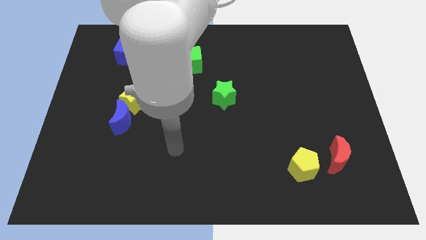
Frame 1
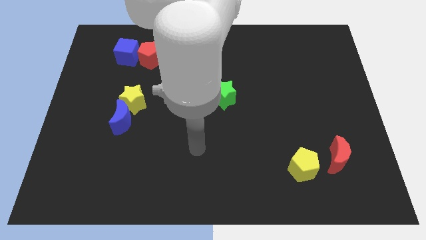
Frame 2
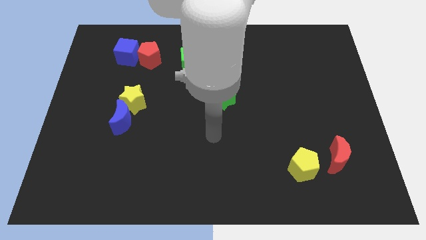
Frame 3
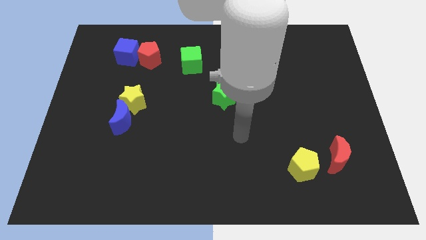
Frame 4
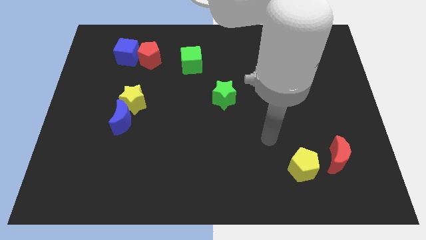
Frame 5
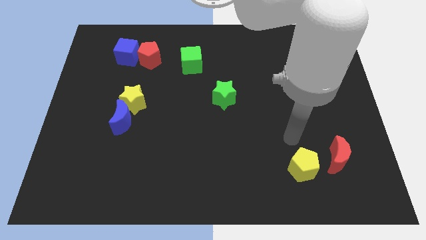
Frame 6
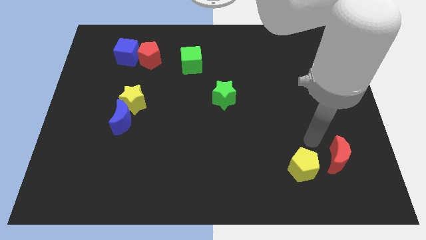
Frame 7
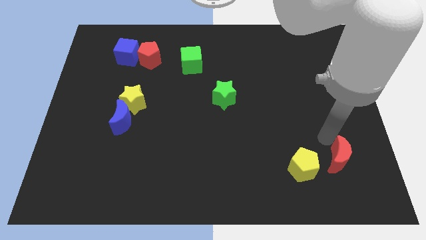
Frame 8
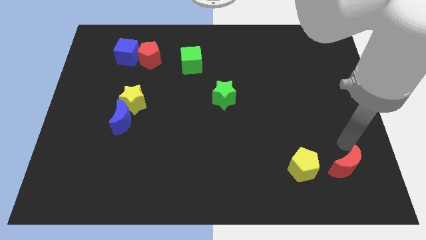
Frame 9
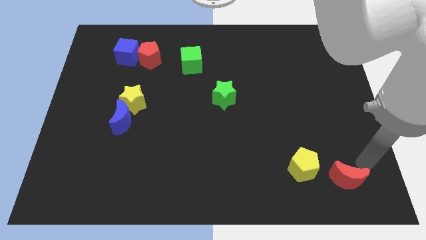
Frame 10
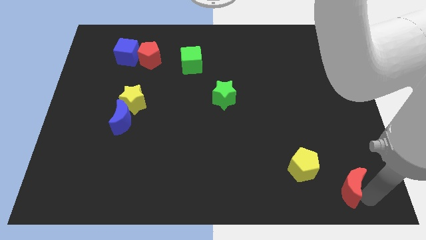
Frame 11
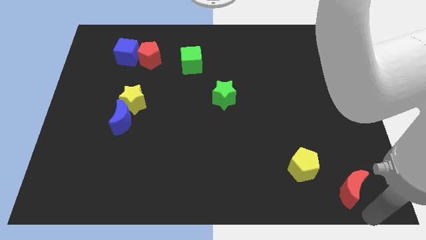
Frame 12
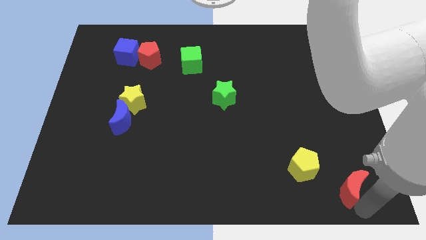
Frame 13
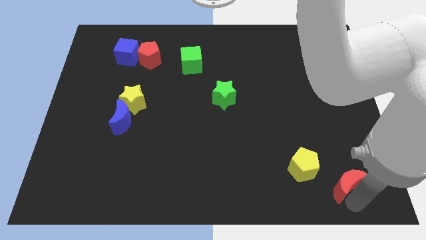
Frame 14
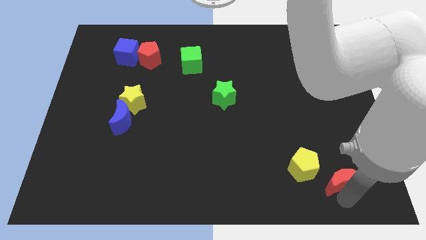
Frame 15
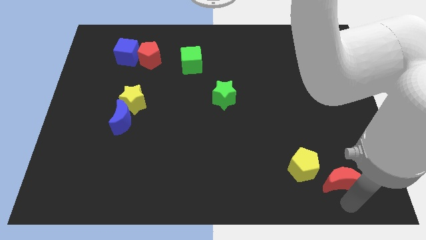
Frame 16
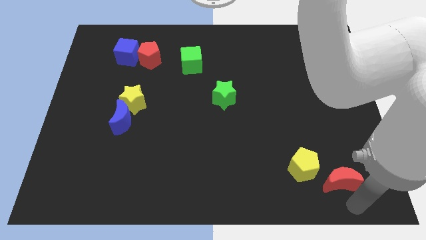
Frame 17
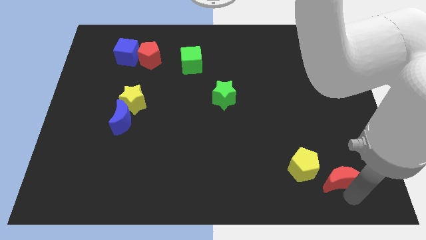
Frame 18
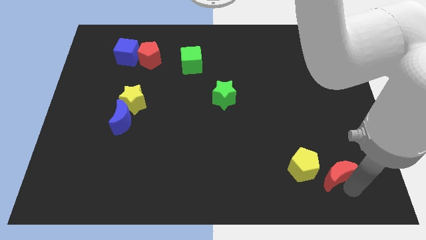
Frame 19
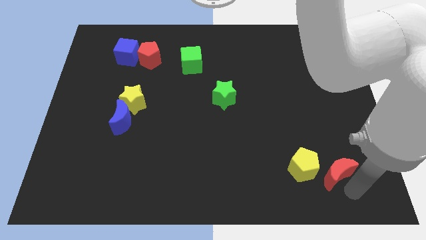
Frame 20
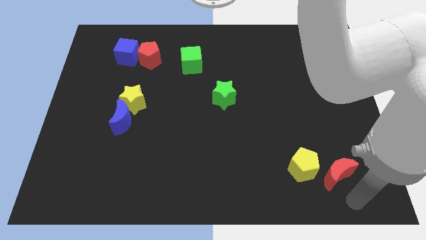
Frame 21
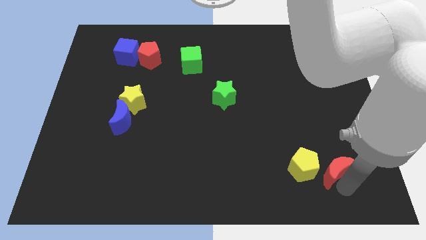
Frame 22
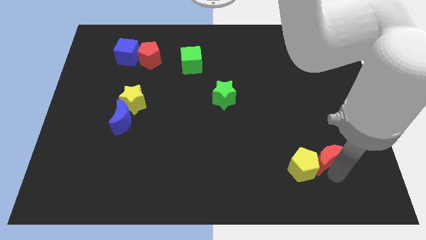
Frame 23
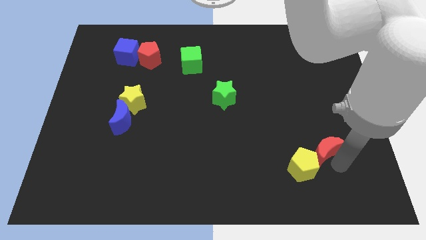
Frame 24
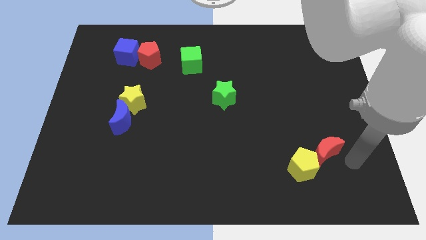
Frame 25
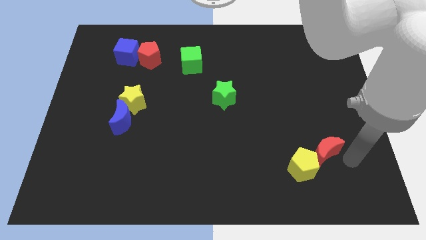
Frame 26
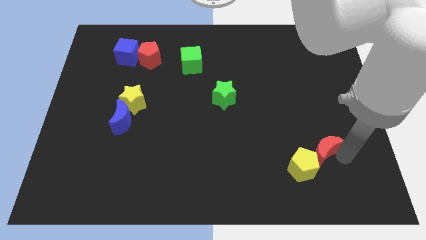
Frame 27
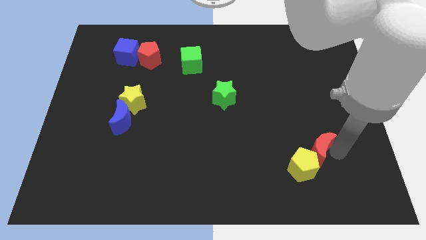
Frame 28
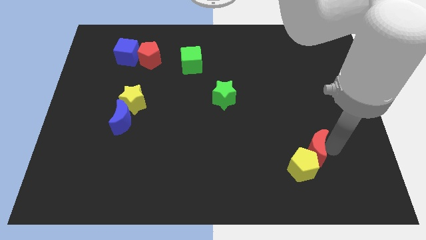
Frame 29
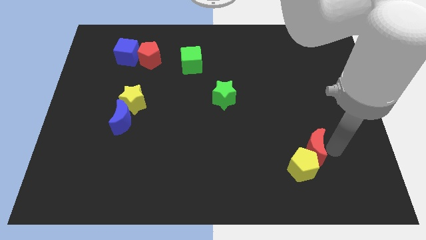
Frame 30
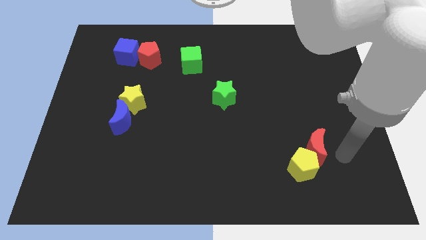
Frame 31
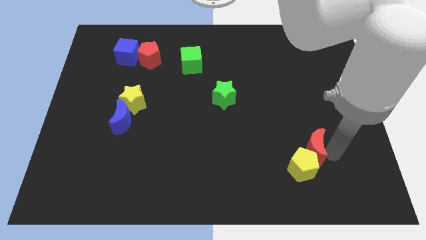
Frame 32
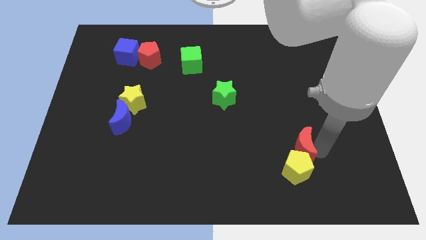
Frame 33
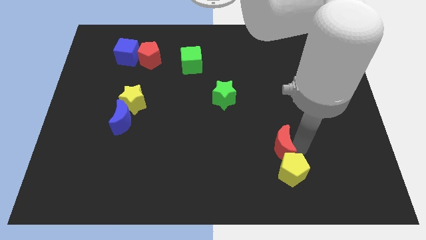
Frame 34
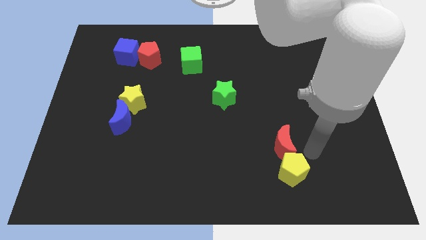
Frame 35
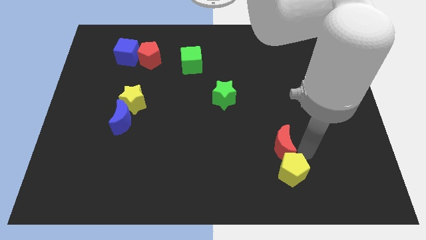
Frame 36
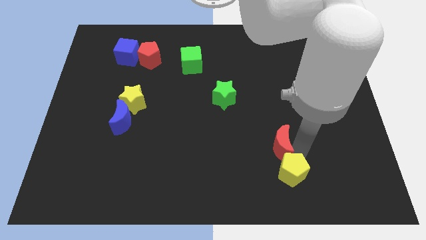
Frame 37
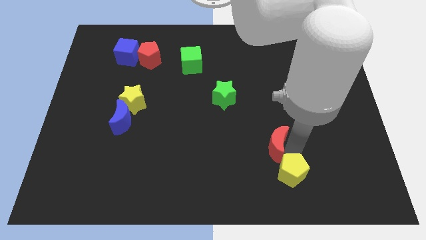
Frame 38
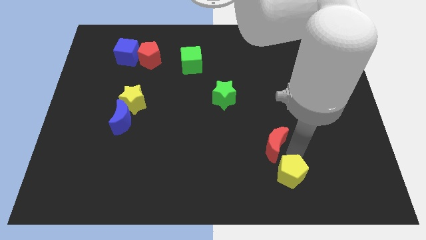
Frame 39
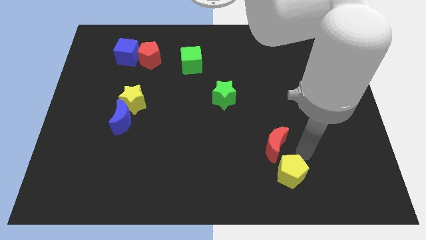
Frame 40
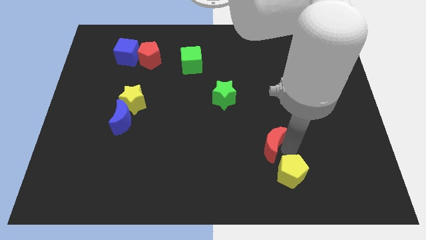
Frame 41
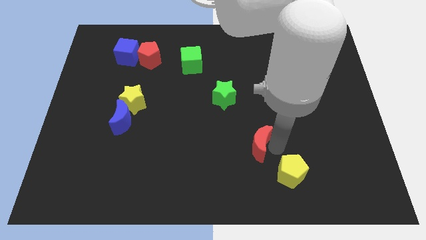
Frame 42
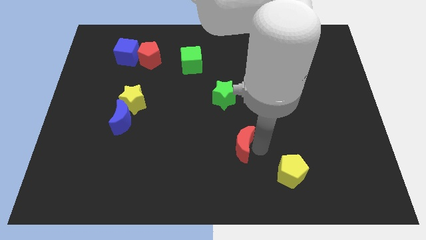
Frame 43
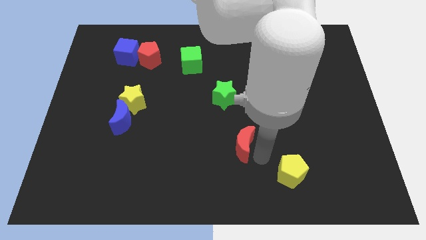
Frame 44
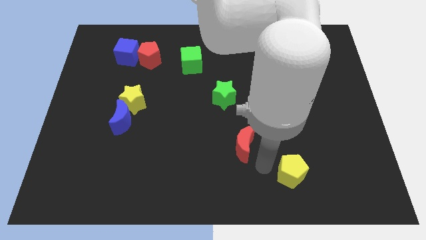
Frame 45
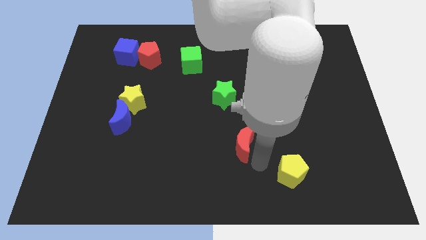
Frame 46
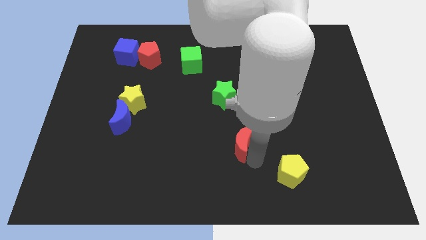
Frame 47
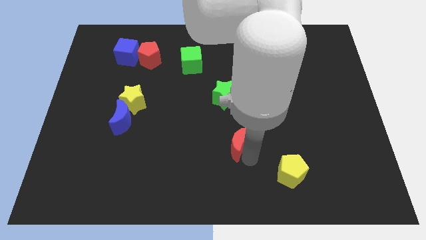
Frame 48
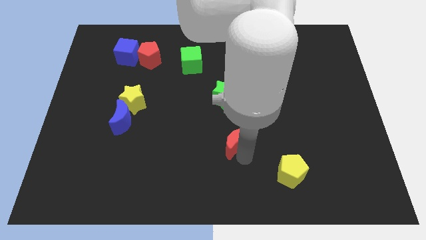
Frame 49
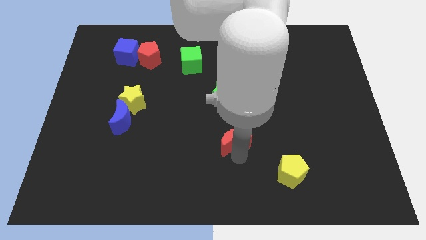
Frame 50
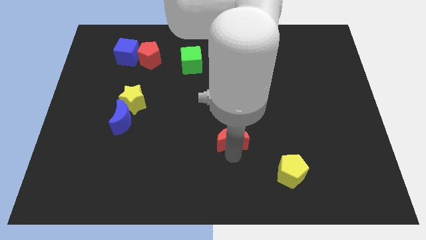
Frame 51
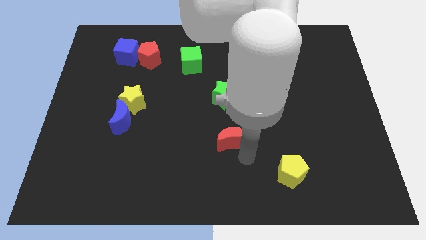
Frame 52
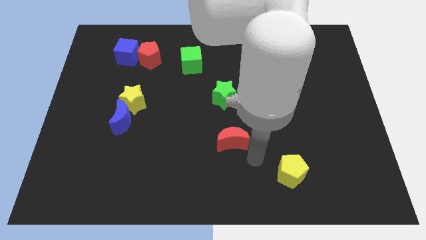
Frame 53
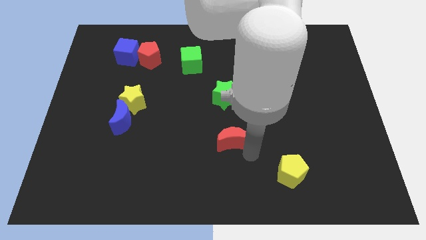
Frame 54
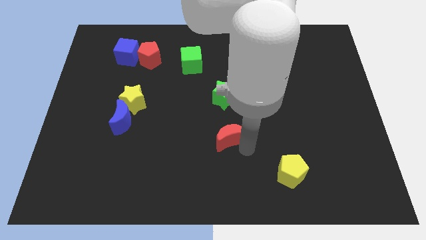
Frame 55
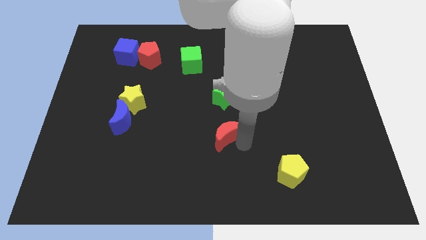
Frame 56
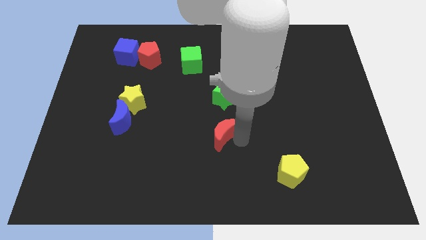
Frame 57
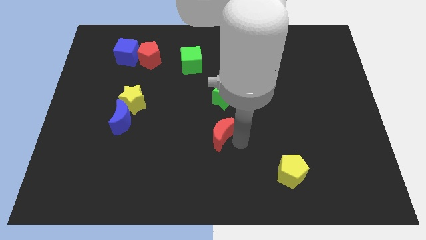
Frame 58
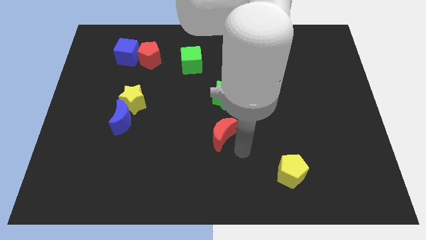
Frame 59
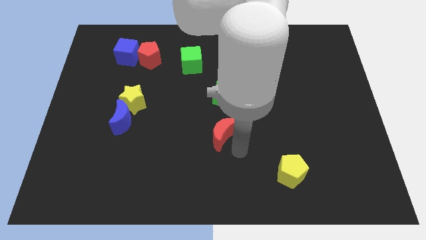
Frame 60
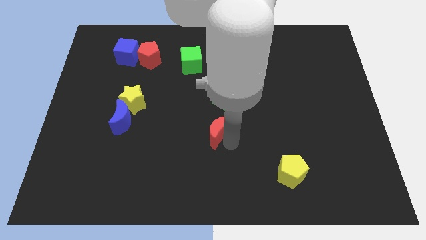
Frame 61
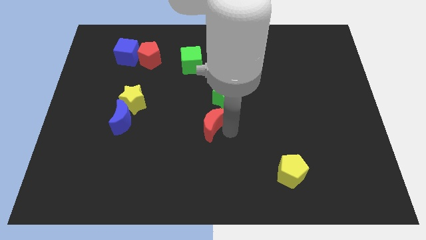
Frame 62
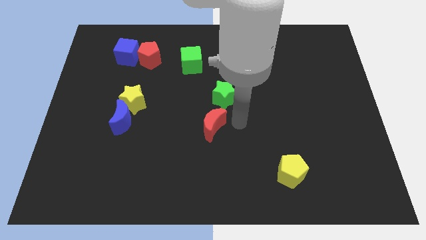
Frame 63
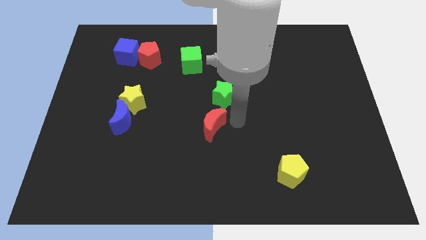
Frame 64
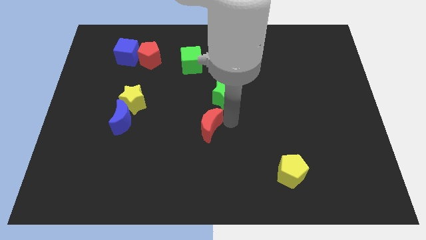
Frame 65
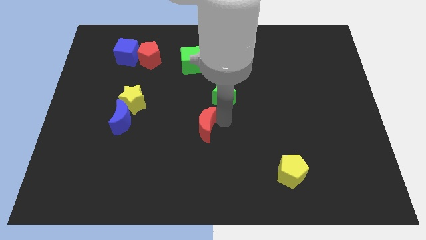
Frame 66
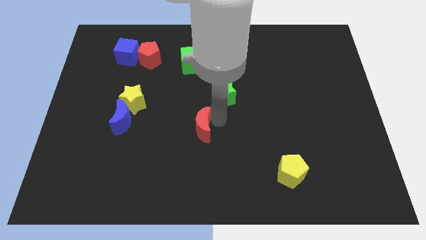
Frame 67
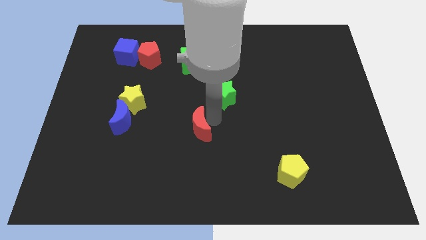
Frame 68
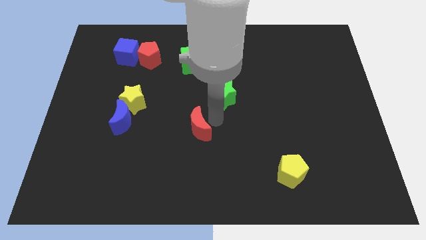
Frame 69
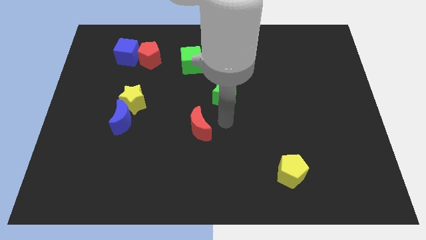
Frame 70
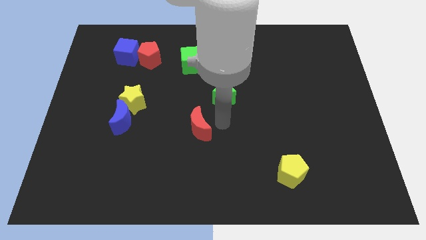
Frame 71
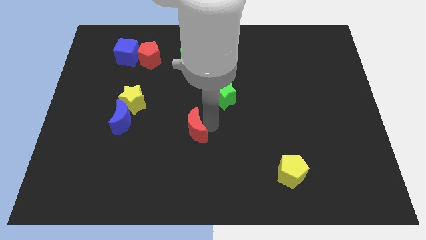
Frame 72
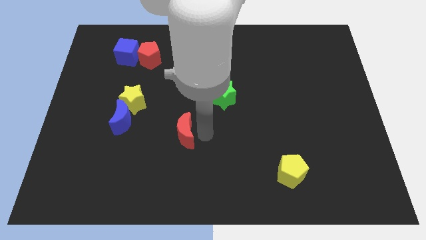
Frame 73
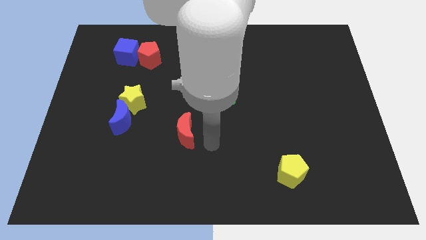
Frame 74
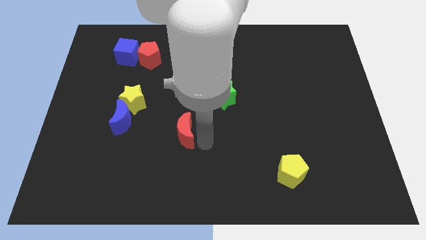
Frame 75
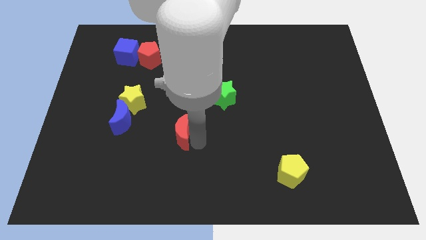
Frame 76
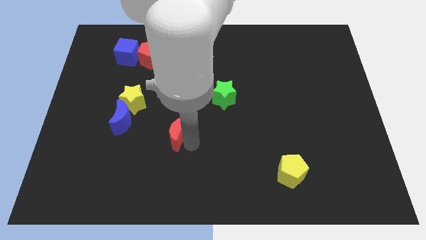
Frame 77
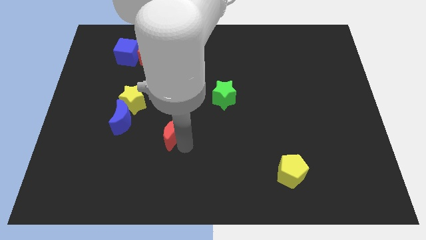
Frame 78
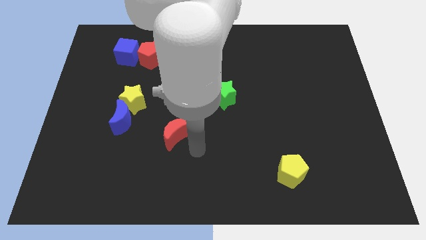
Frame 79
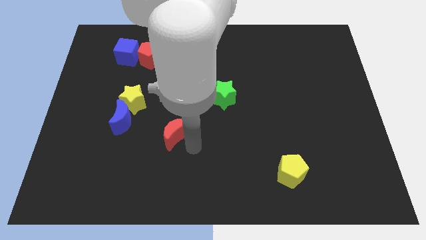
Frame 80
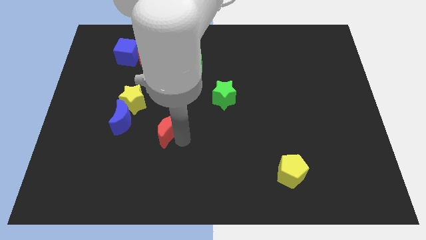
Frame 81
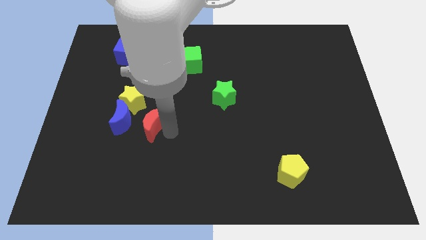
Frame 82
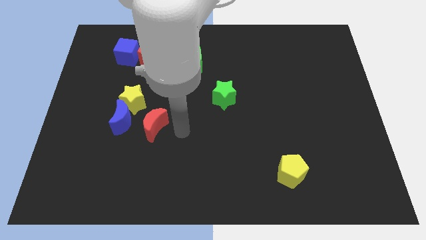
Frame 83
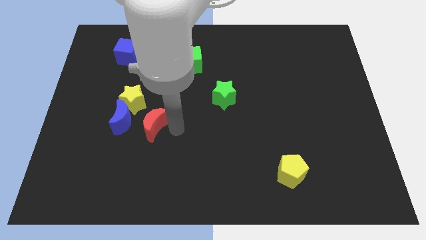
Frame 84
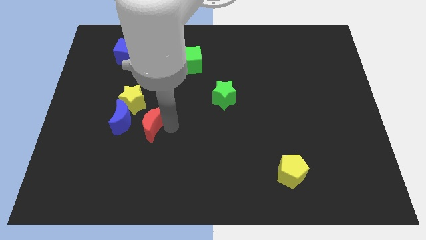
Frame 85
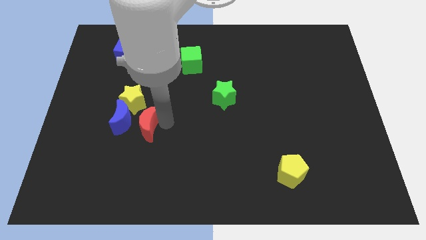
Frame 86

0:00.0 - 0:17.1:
put the red moon to the blue moon
